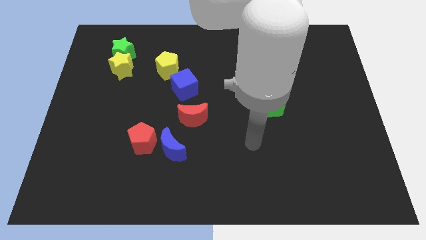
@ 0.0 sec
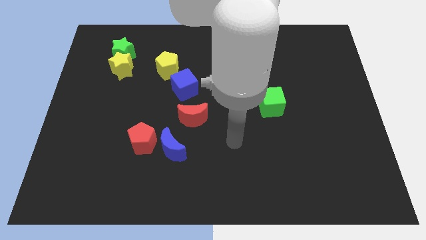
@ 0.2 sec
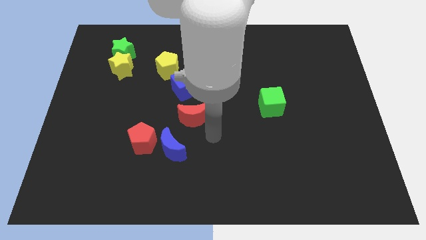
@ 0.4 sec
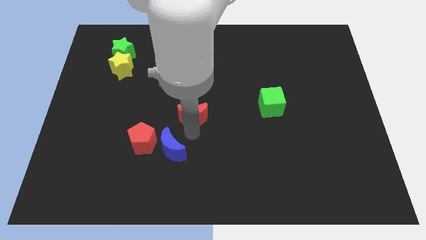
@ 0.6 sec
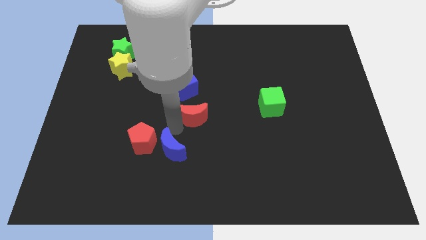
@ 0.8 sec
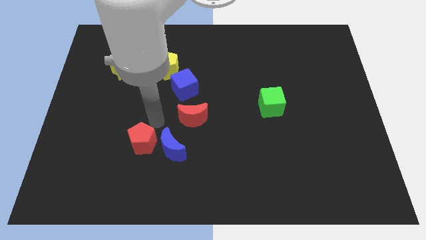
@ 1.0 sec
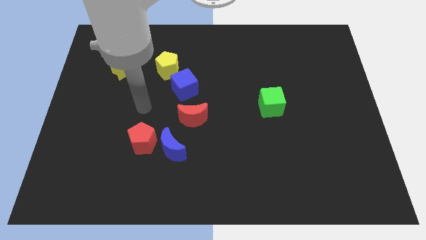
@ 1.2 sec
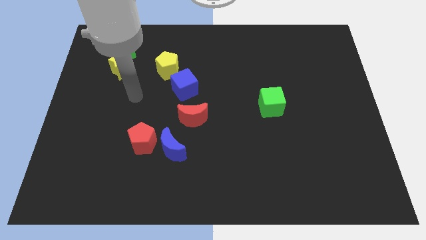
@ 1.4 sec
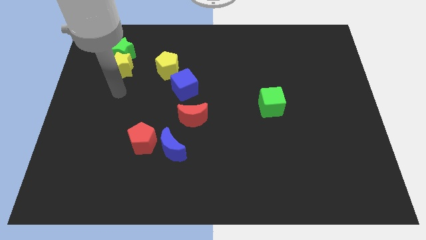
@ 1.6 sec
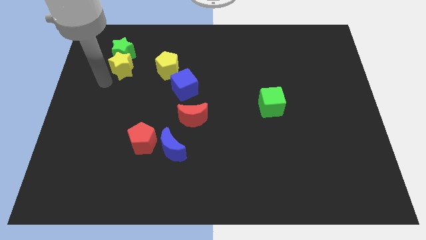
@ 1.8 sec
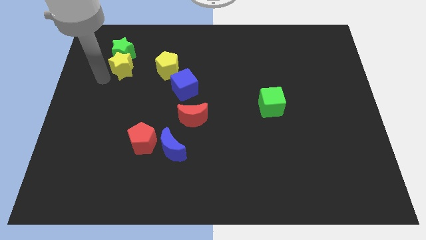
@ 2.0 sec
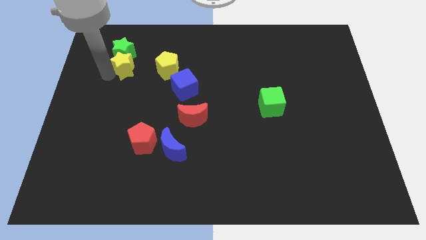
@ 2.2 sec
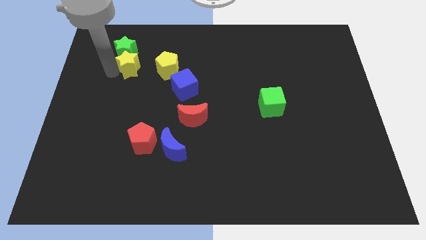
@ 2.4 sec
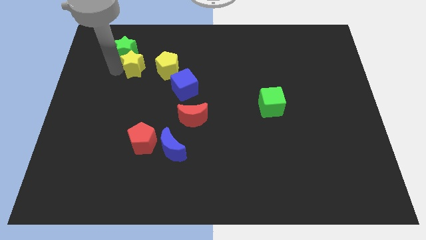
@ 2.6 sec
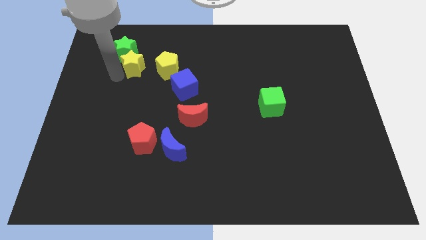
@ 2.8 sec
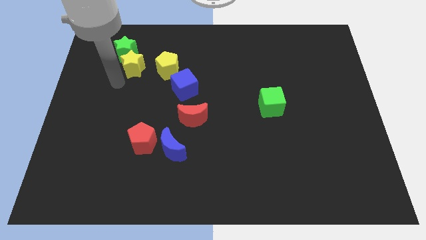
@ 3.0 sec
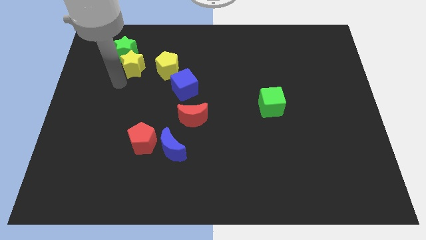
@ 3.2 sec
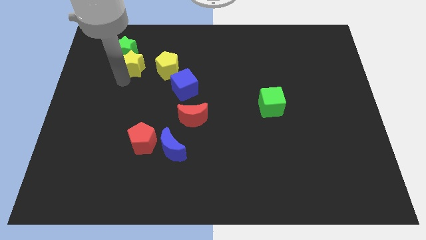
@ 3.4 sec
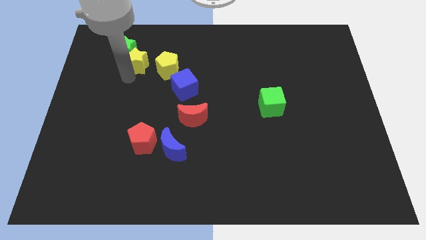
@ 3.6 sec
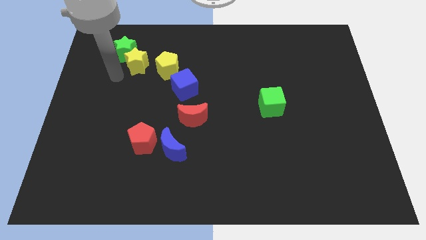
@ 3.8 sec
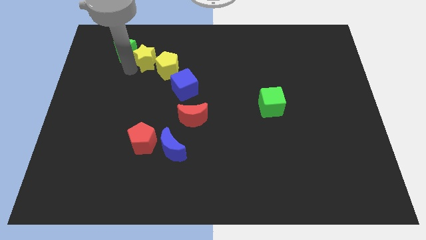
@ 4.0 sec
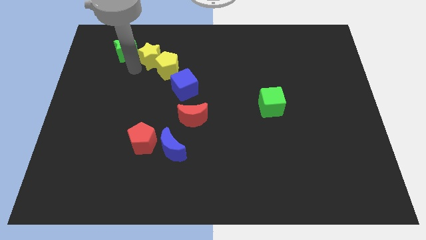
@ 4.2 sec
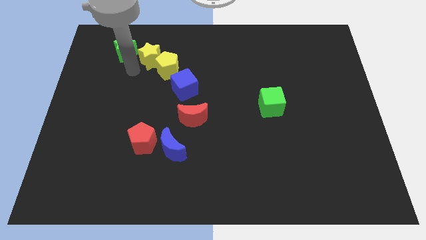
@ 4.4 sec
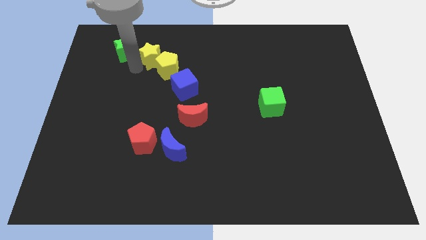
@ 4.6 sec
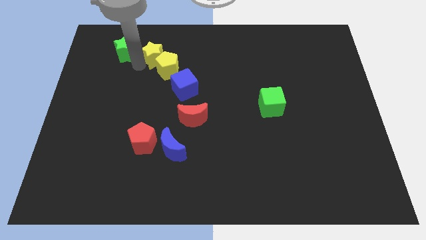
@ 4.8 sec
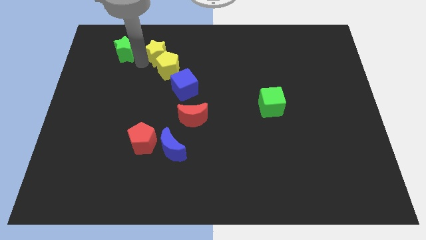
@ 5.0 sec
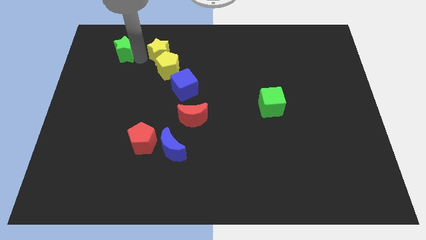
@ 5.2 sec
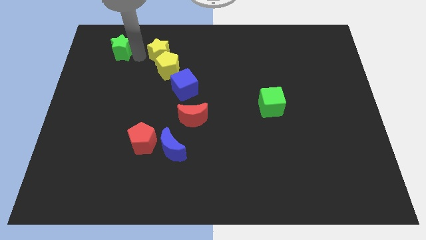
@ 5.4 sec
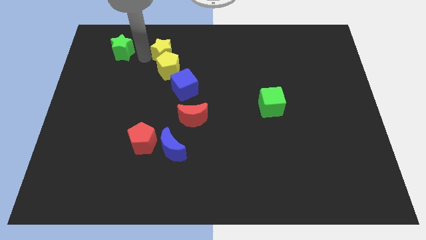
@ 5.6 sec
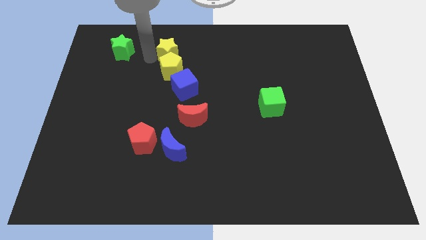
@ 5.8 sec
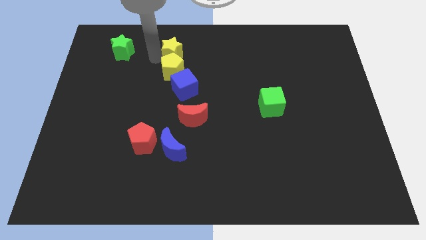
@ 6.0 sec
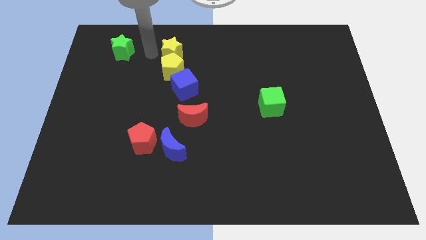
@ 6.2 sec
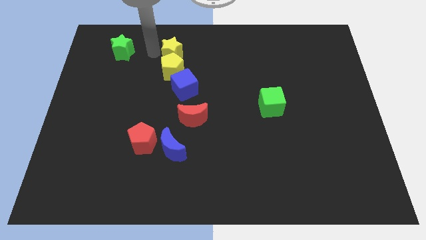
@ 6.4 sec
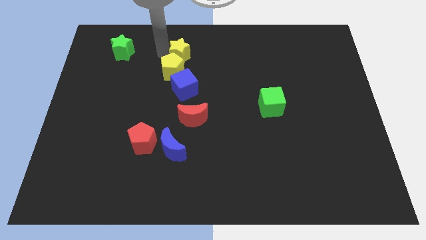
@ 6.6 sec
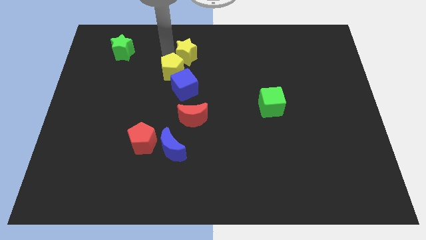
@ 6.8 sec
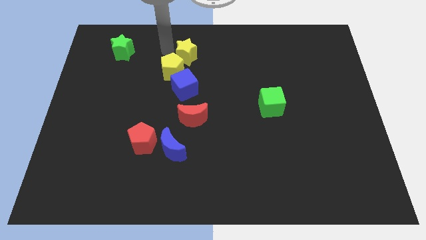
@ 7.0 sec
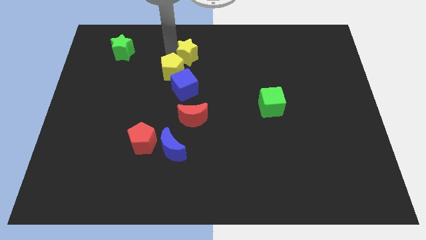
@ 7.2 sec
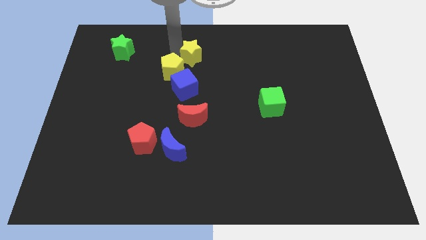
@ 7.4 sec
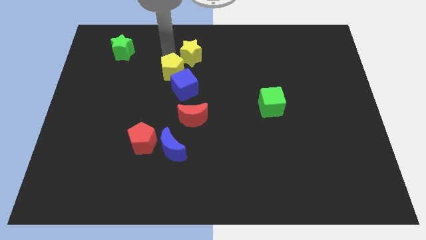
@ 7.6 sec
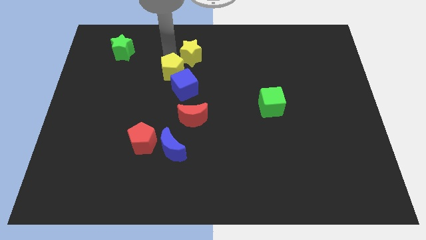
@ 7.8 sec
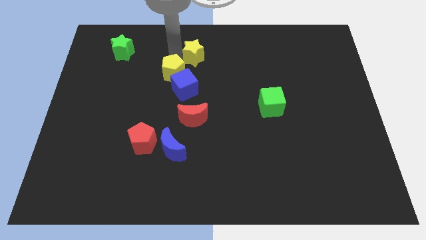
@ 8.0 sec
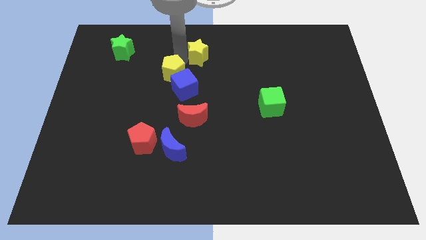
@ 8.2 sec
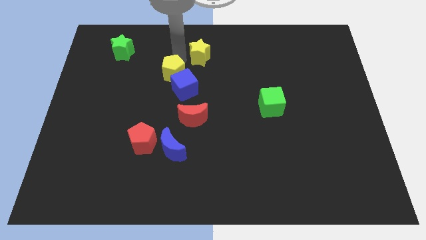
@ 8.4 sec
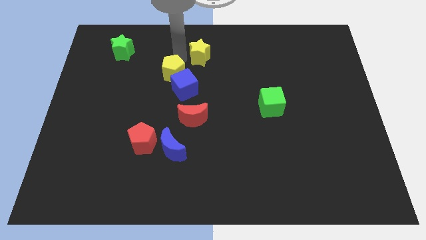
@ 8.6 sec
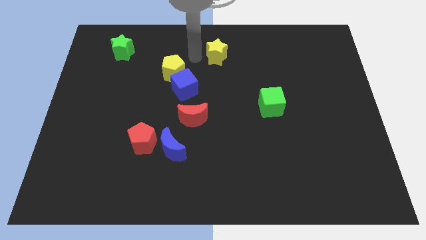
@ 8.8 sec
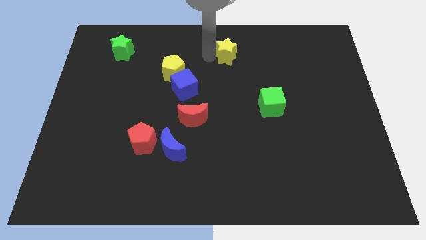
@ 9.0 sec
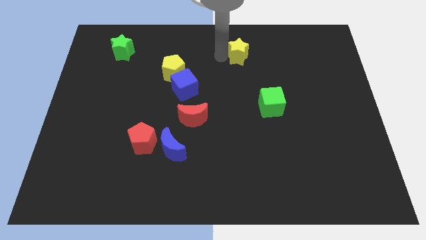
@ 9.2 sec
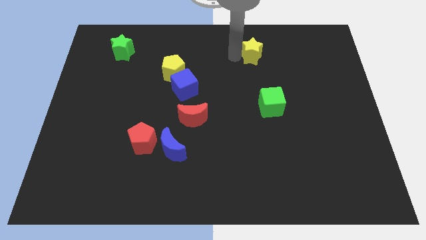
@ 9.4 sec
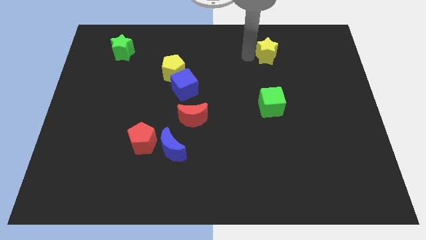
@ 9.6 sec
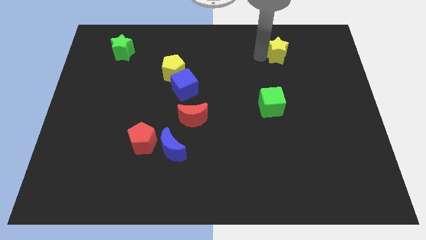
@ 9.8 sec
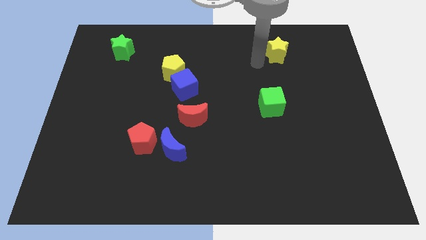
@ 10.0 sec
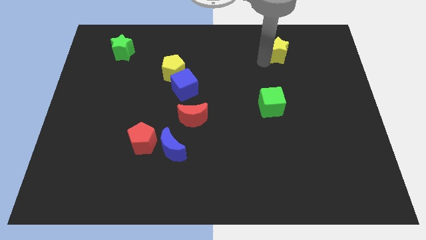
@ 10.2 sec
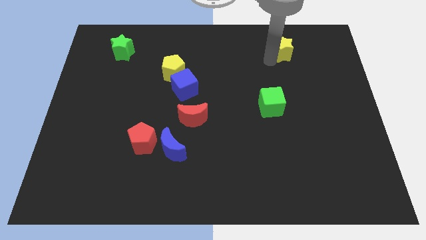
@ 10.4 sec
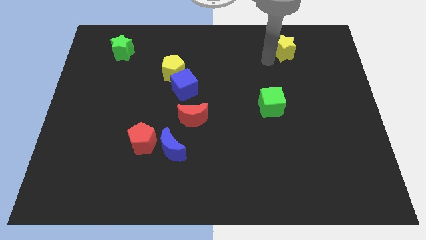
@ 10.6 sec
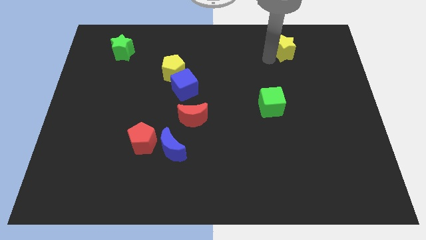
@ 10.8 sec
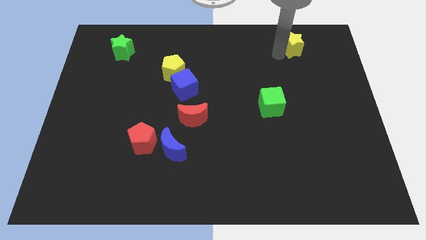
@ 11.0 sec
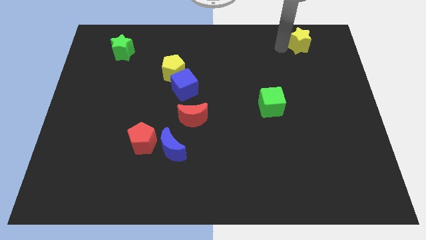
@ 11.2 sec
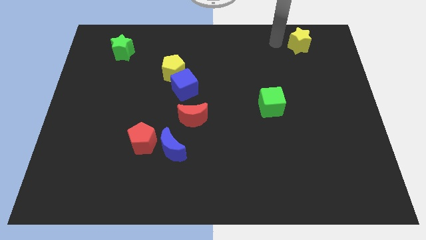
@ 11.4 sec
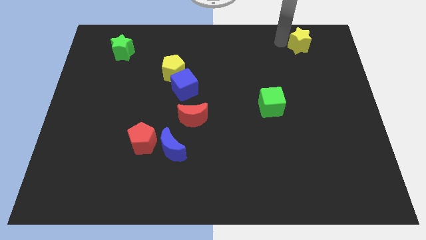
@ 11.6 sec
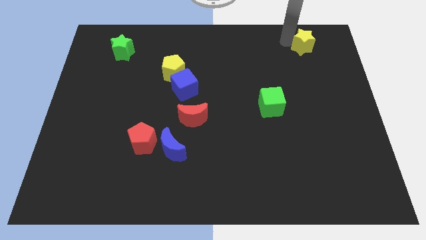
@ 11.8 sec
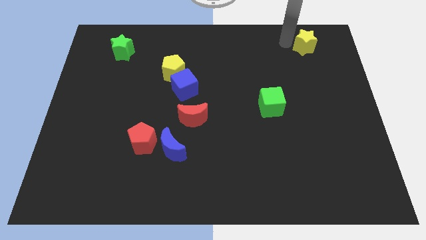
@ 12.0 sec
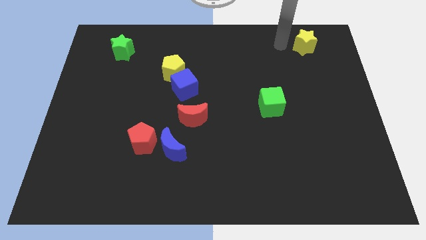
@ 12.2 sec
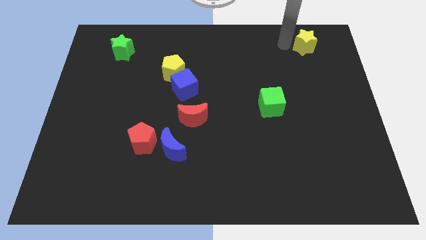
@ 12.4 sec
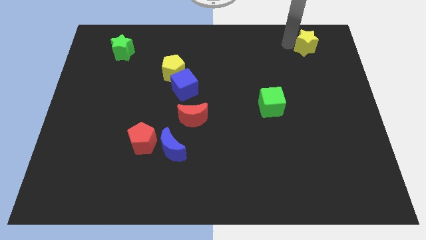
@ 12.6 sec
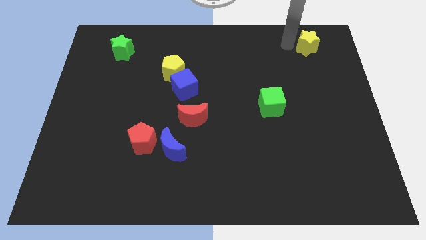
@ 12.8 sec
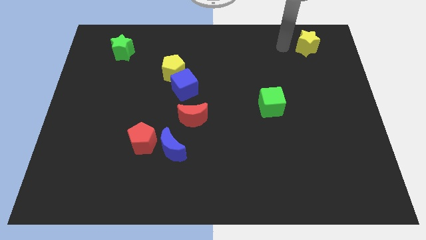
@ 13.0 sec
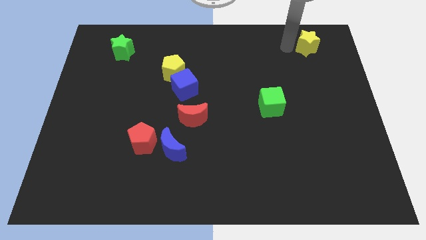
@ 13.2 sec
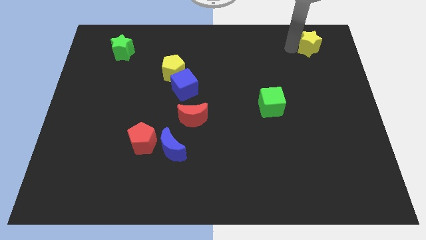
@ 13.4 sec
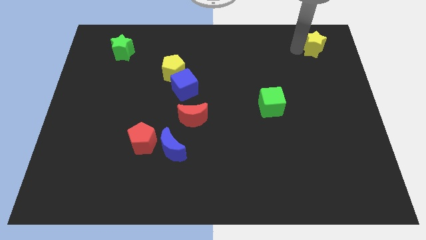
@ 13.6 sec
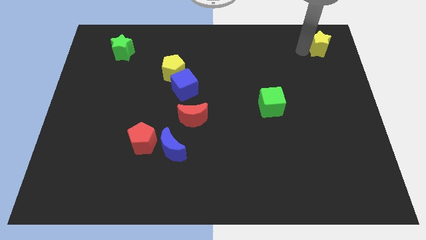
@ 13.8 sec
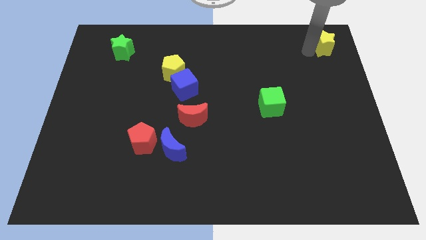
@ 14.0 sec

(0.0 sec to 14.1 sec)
put the yellow star to the top right corner
